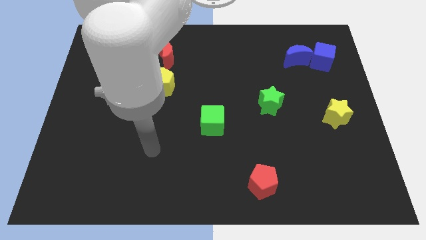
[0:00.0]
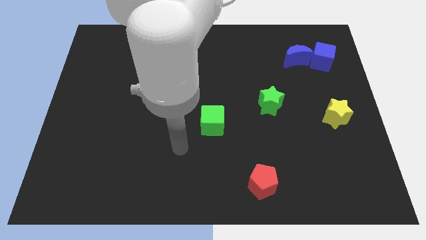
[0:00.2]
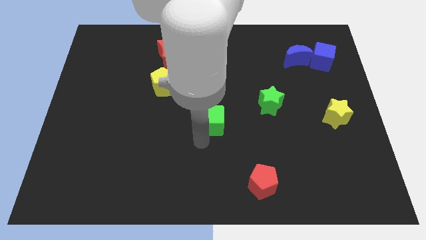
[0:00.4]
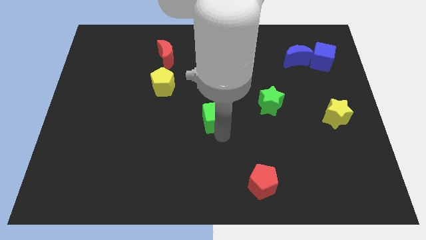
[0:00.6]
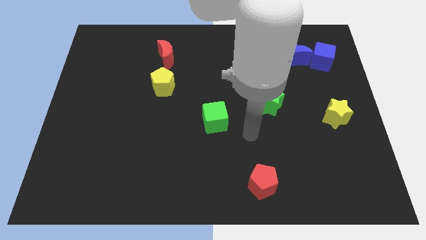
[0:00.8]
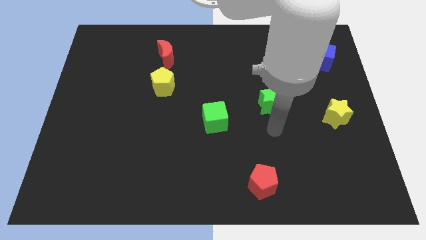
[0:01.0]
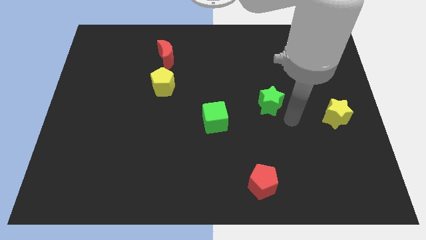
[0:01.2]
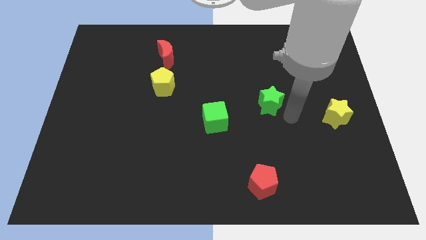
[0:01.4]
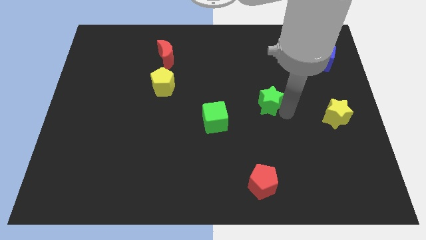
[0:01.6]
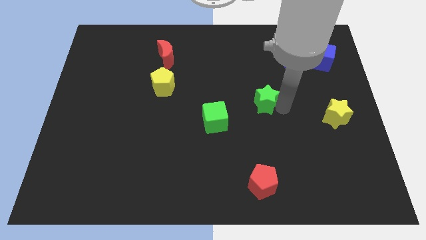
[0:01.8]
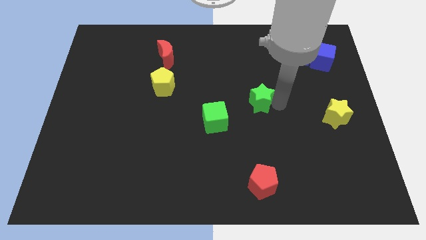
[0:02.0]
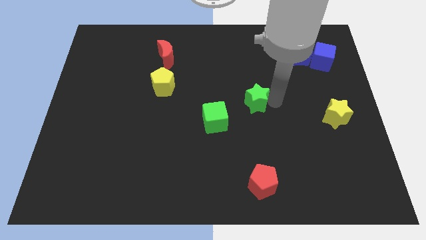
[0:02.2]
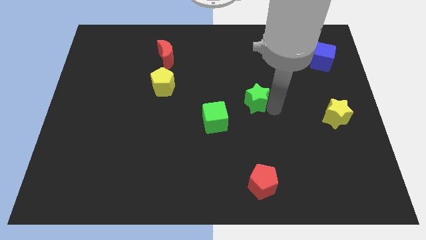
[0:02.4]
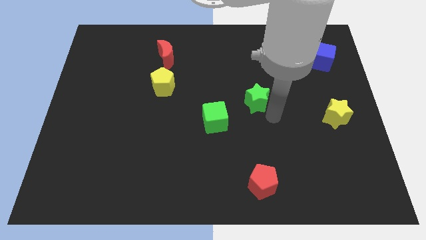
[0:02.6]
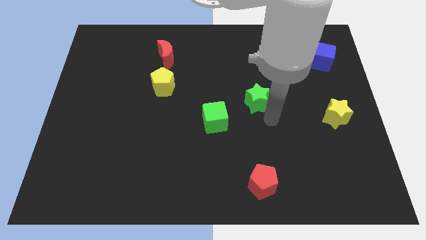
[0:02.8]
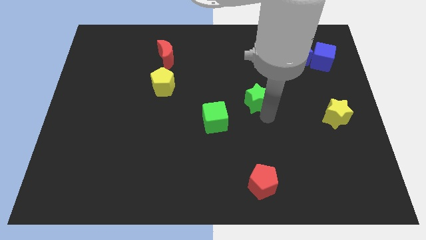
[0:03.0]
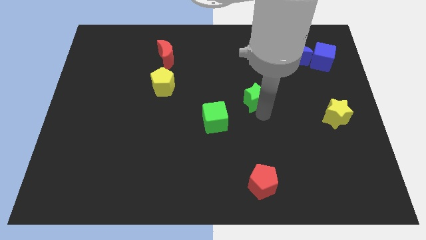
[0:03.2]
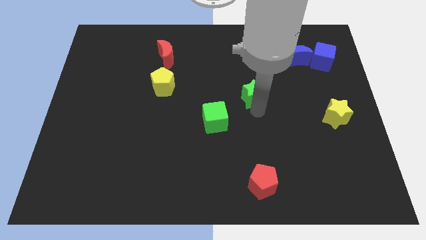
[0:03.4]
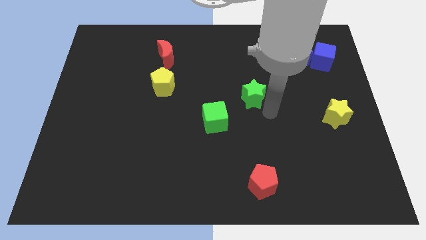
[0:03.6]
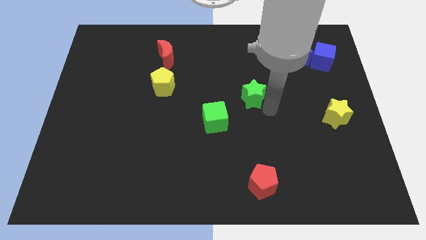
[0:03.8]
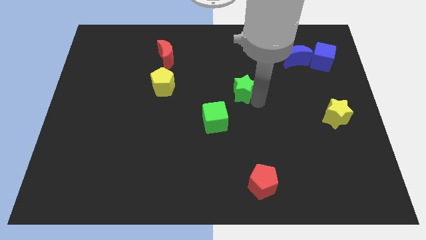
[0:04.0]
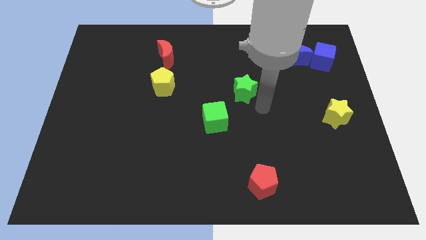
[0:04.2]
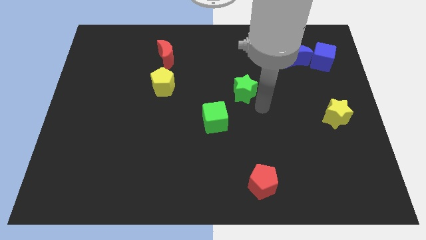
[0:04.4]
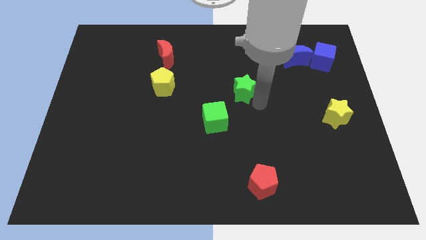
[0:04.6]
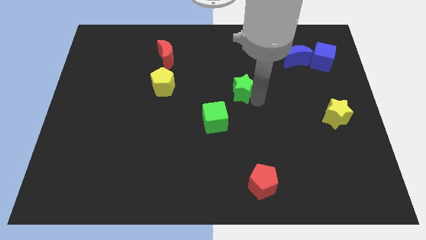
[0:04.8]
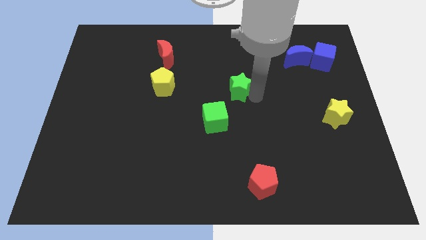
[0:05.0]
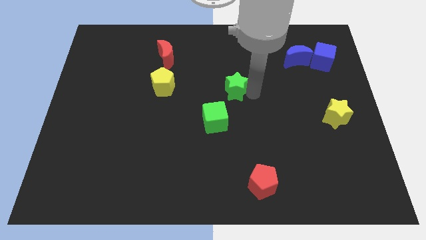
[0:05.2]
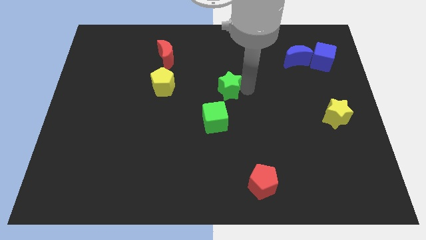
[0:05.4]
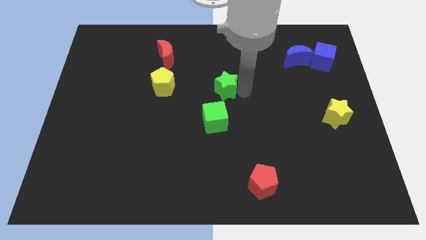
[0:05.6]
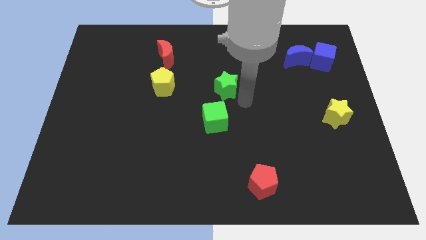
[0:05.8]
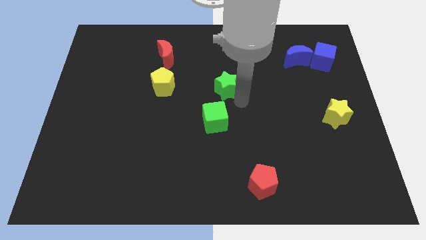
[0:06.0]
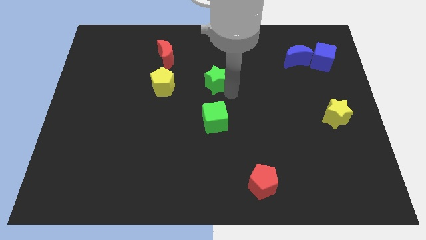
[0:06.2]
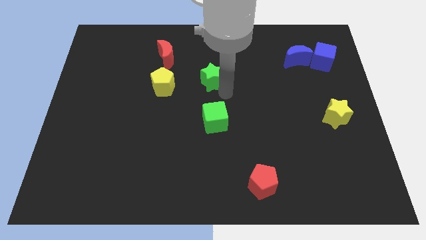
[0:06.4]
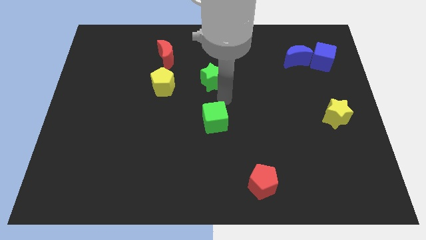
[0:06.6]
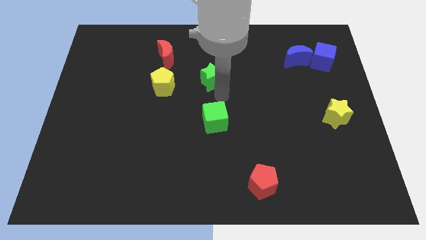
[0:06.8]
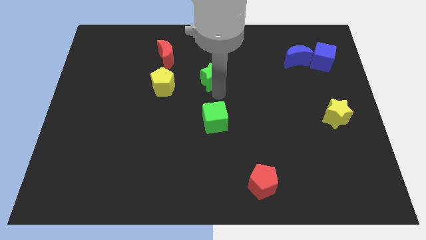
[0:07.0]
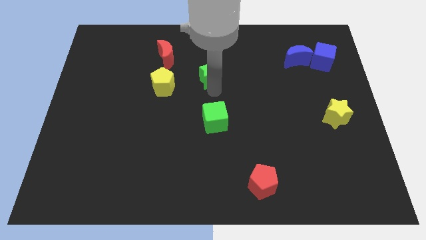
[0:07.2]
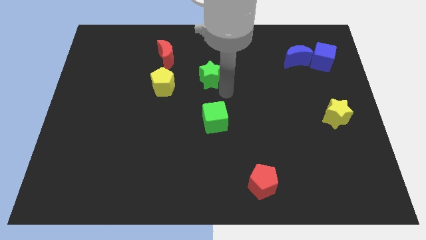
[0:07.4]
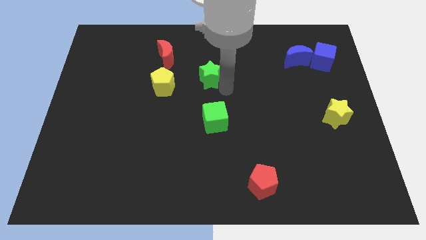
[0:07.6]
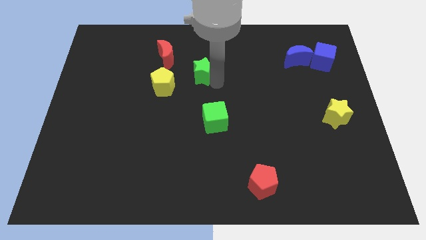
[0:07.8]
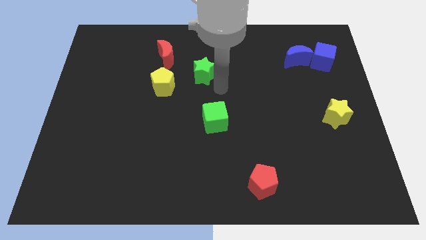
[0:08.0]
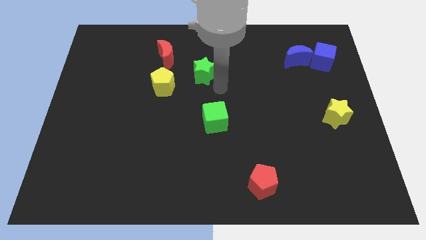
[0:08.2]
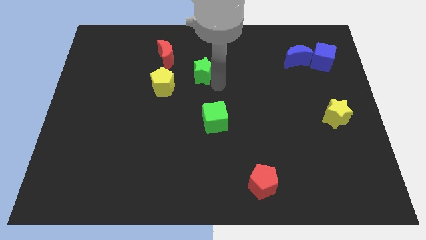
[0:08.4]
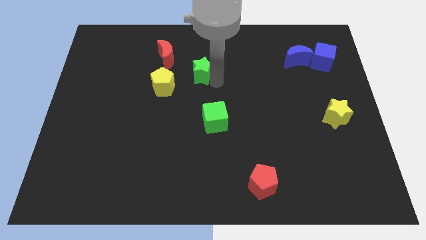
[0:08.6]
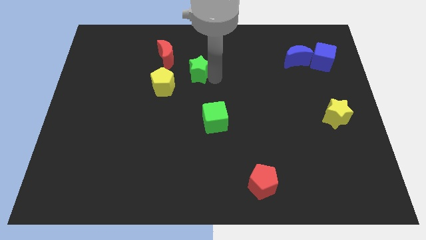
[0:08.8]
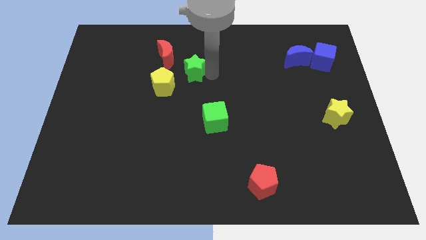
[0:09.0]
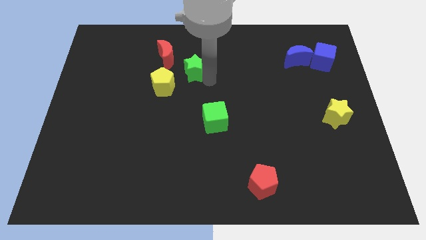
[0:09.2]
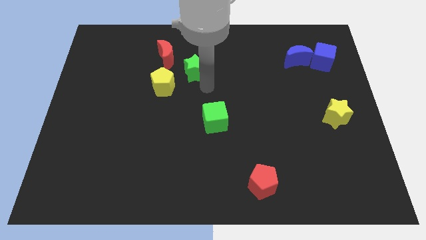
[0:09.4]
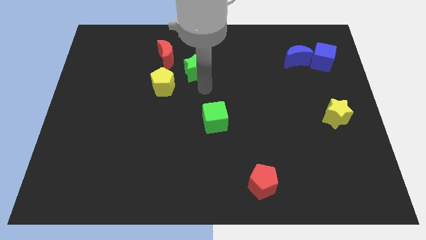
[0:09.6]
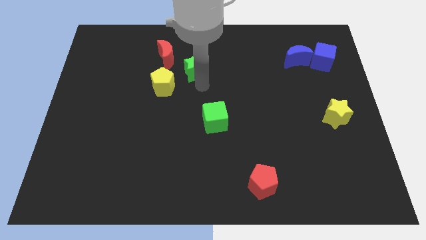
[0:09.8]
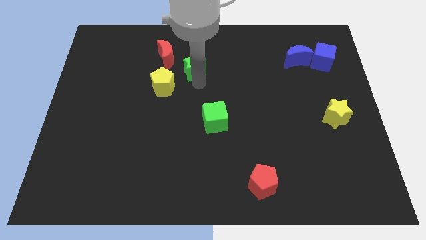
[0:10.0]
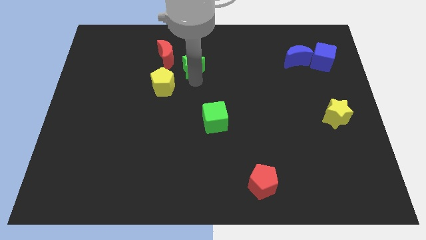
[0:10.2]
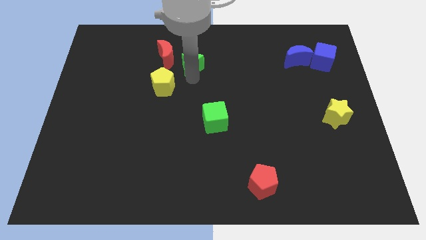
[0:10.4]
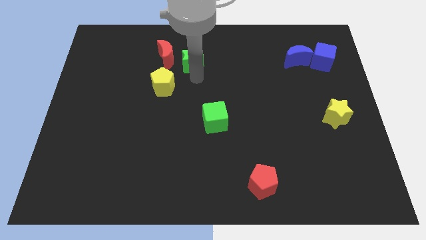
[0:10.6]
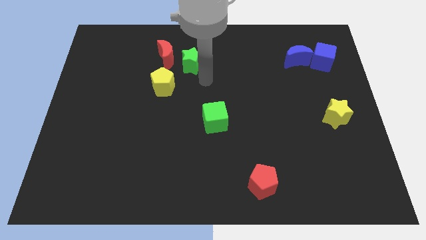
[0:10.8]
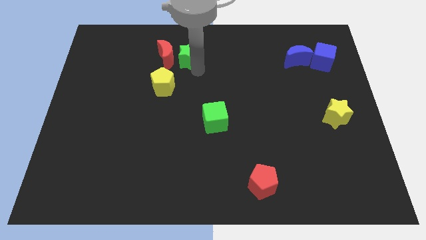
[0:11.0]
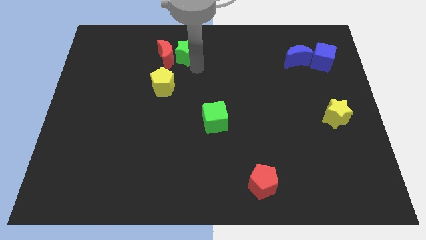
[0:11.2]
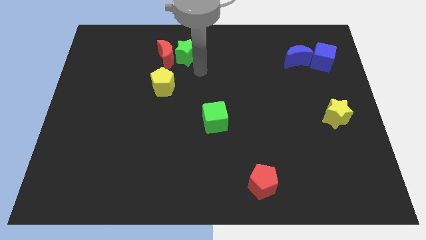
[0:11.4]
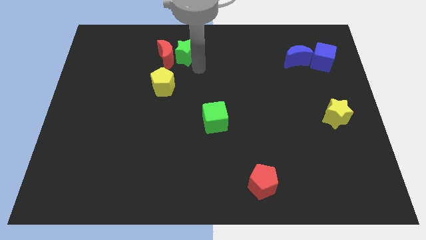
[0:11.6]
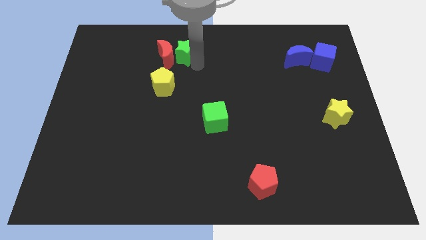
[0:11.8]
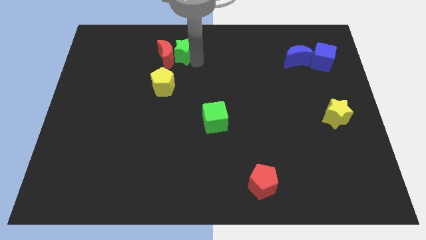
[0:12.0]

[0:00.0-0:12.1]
push the green star above the yellow pentagon

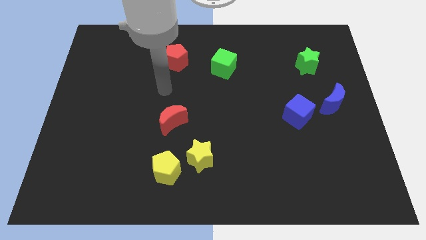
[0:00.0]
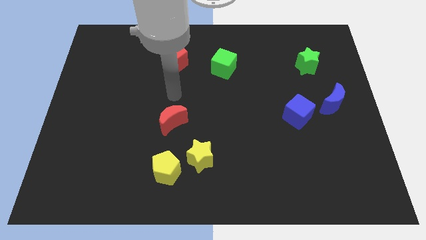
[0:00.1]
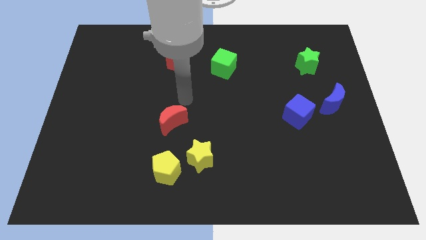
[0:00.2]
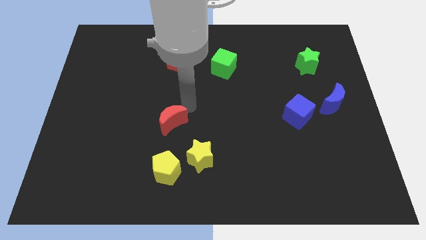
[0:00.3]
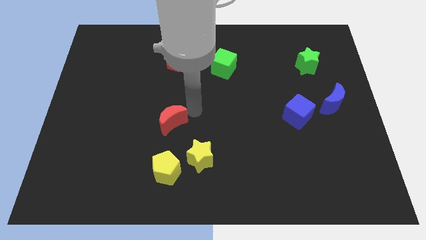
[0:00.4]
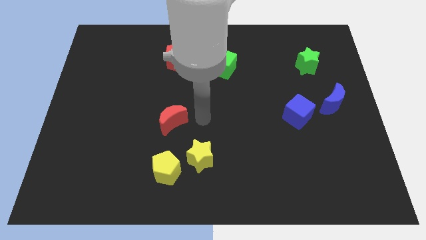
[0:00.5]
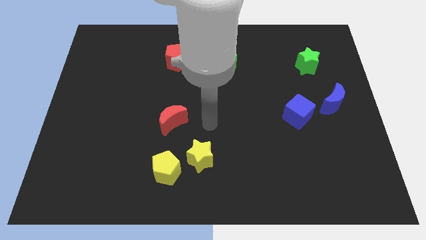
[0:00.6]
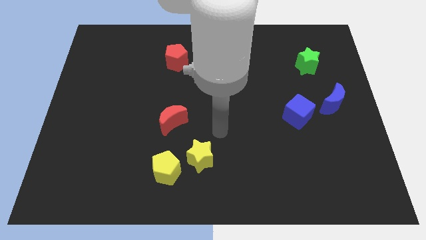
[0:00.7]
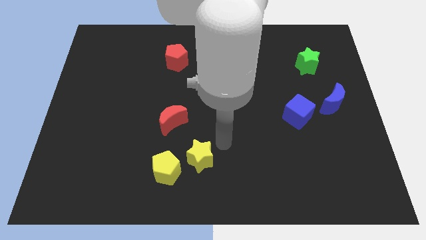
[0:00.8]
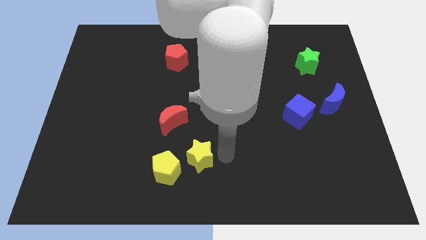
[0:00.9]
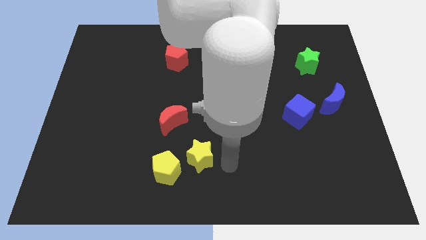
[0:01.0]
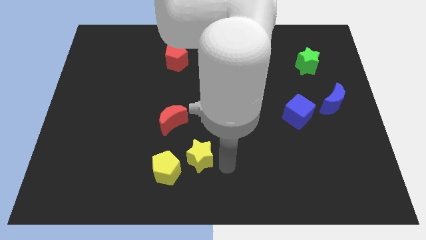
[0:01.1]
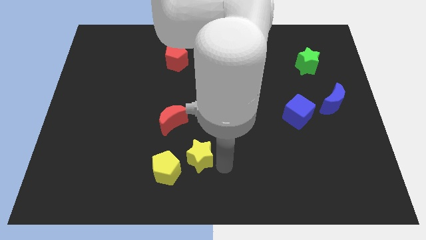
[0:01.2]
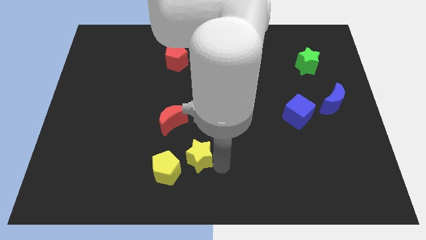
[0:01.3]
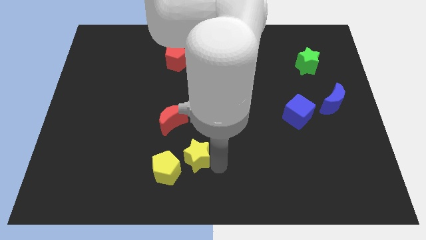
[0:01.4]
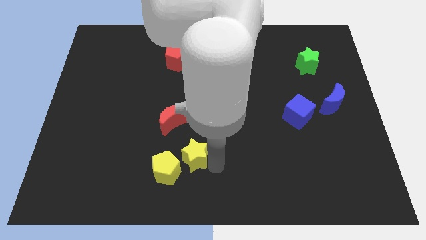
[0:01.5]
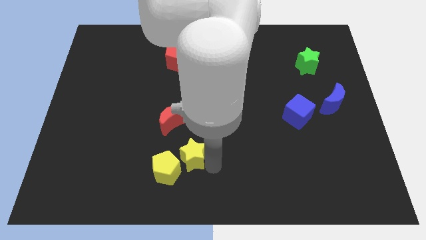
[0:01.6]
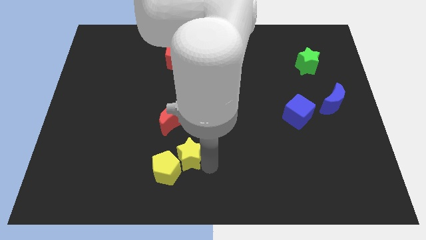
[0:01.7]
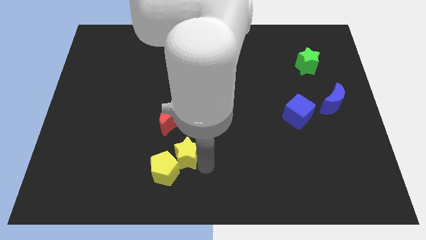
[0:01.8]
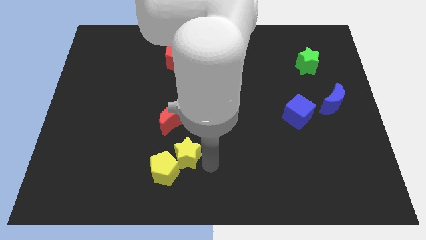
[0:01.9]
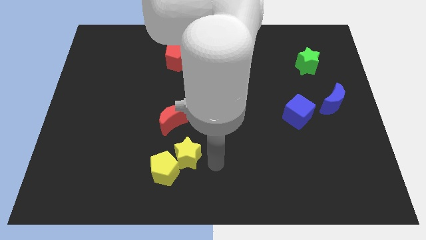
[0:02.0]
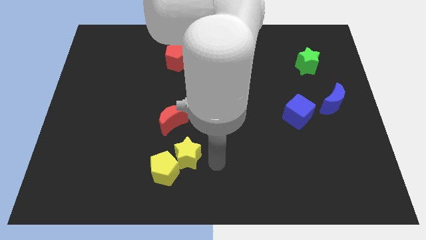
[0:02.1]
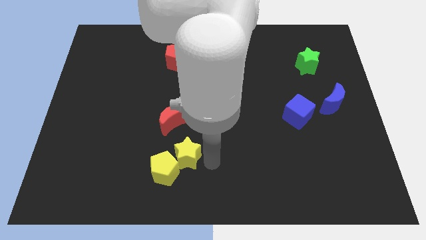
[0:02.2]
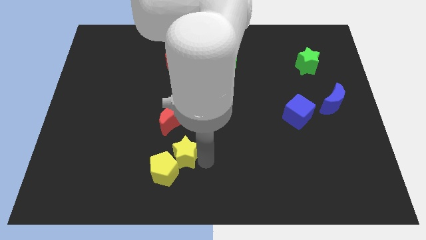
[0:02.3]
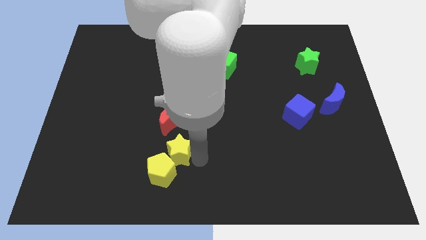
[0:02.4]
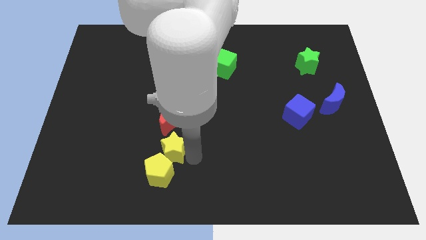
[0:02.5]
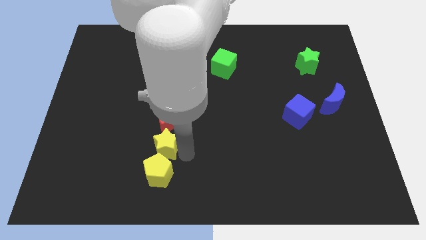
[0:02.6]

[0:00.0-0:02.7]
push the yellow star to the top left side of the yellow pentagon
